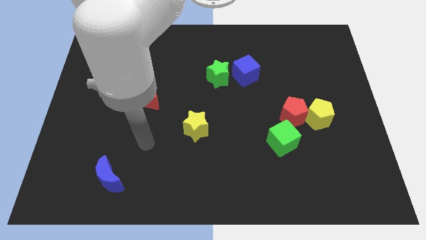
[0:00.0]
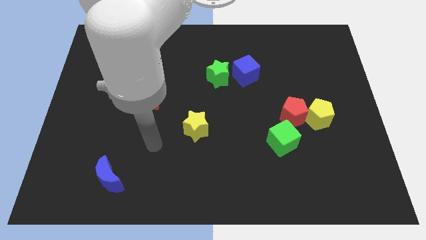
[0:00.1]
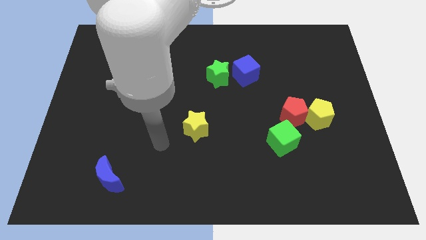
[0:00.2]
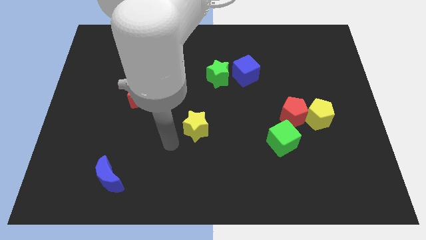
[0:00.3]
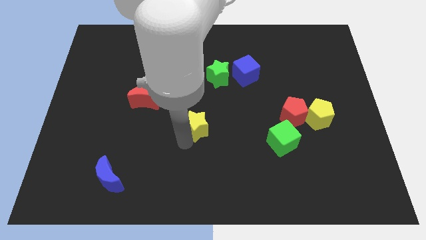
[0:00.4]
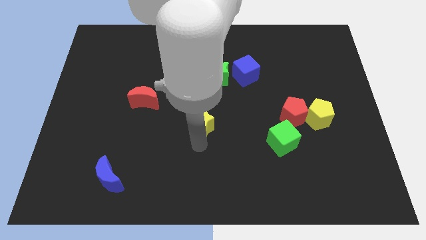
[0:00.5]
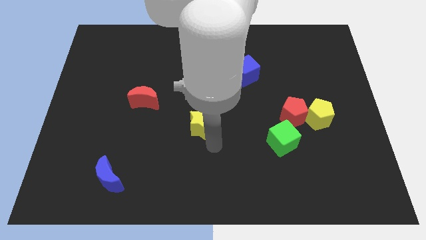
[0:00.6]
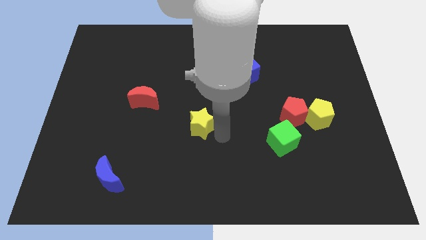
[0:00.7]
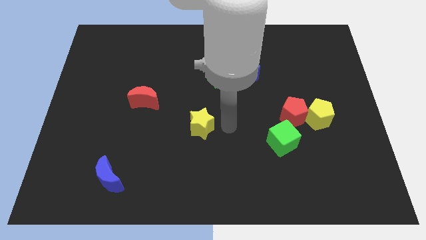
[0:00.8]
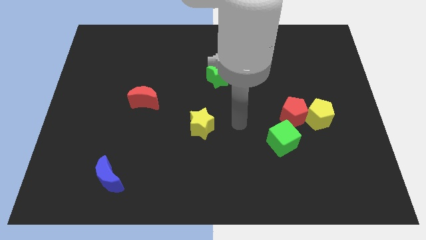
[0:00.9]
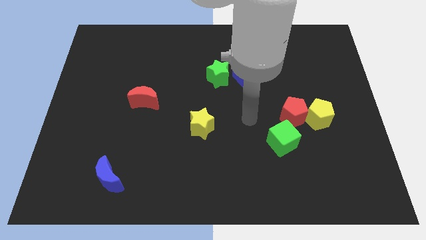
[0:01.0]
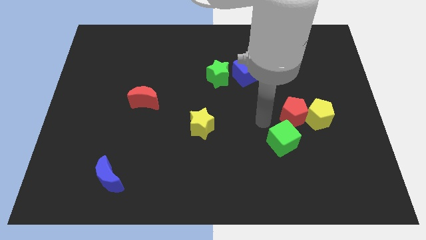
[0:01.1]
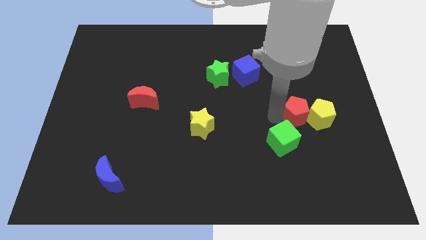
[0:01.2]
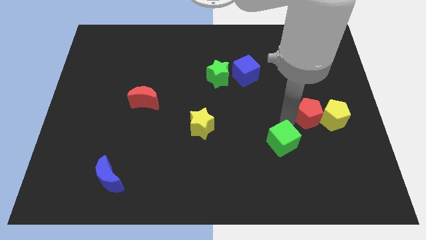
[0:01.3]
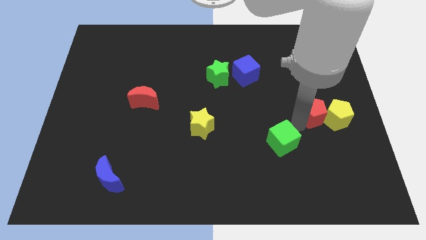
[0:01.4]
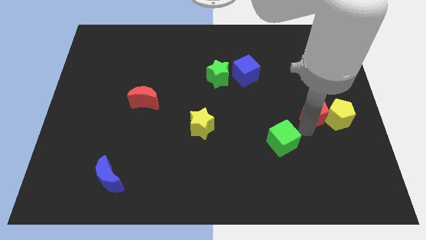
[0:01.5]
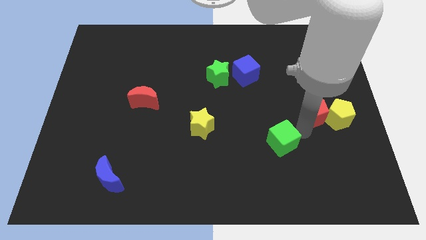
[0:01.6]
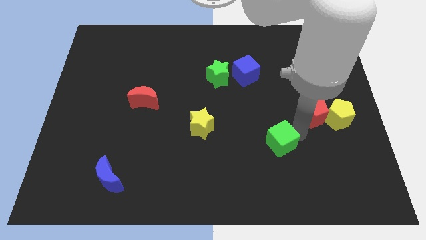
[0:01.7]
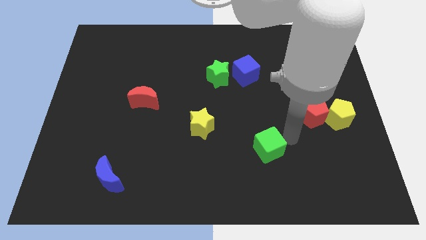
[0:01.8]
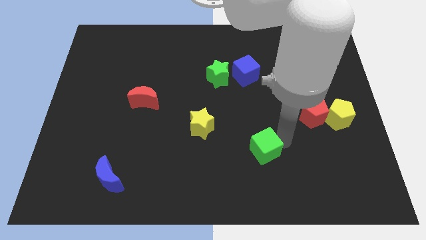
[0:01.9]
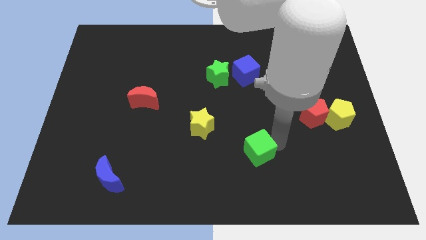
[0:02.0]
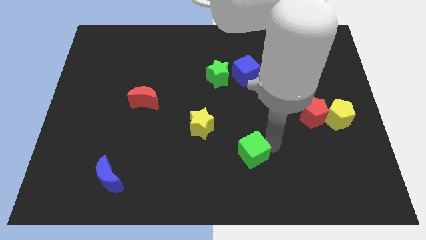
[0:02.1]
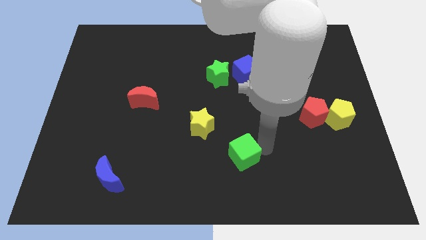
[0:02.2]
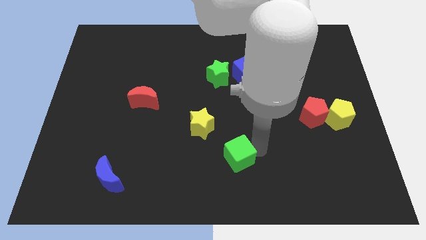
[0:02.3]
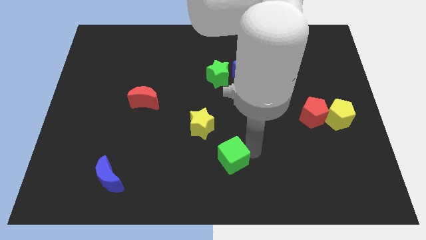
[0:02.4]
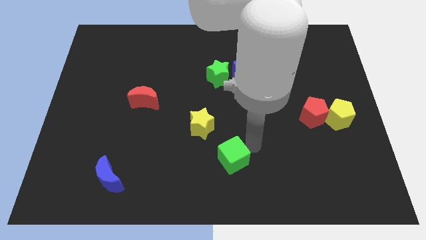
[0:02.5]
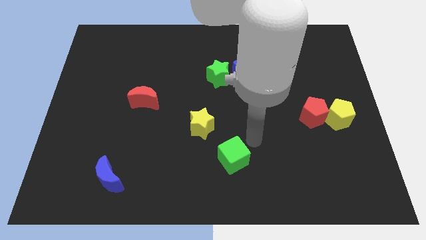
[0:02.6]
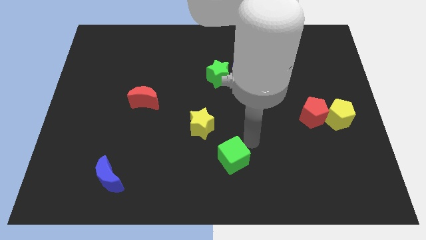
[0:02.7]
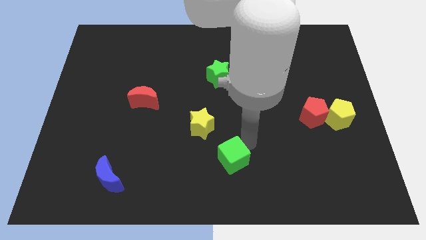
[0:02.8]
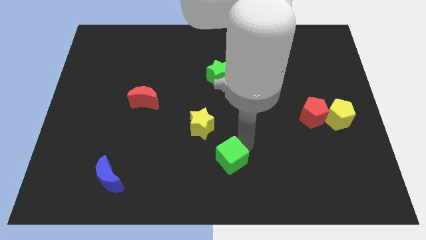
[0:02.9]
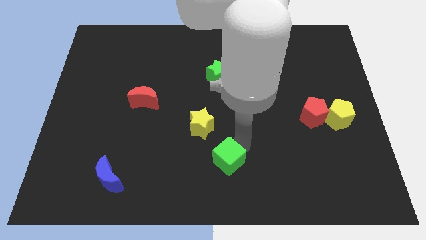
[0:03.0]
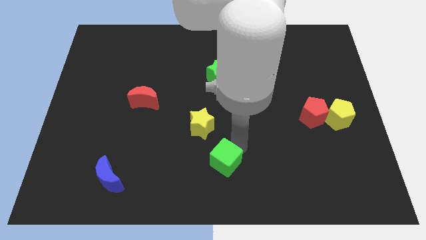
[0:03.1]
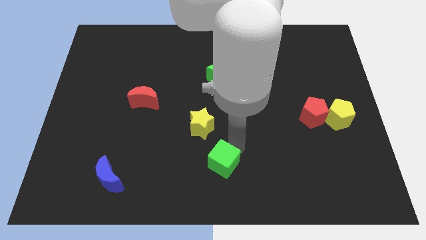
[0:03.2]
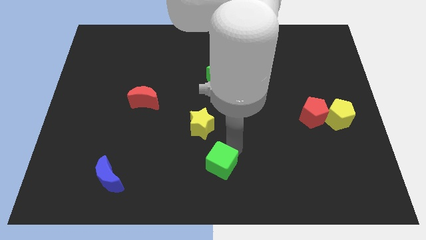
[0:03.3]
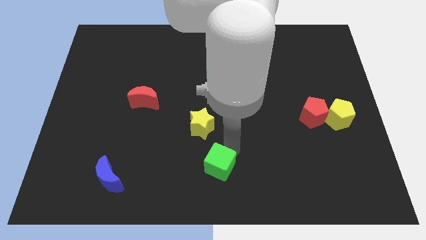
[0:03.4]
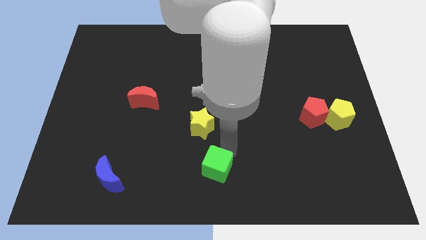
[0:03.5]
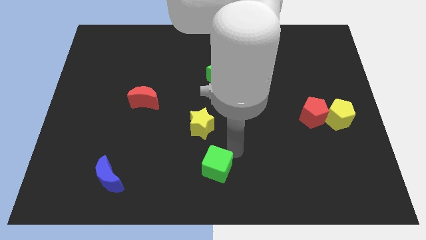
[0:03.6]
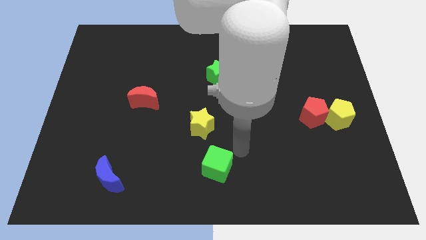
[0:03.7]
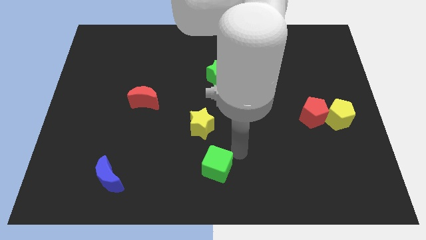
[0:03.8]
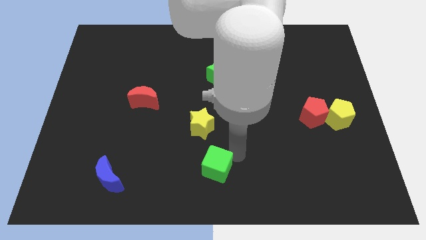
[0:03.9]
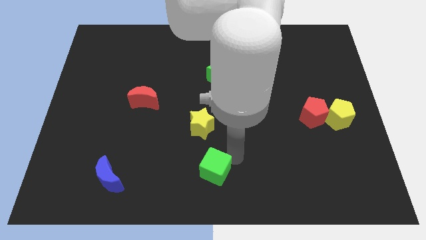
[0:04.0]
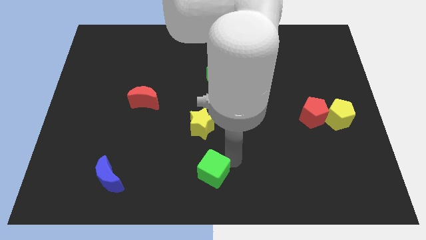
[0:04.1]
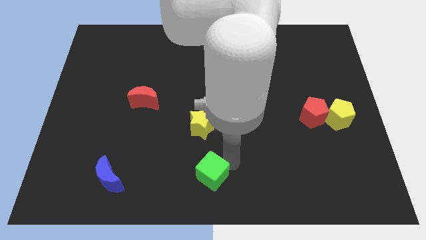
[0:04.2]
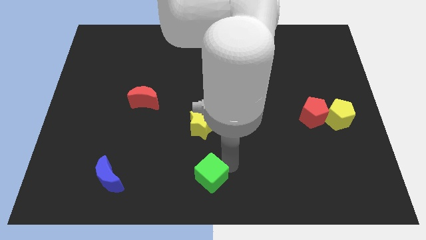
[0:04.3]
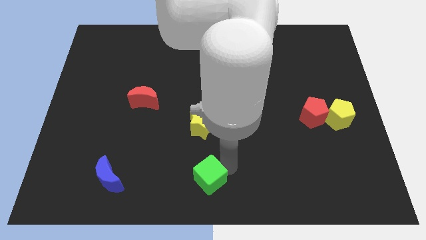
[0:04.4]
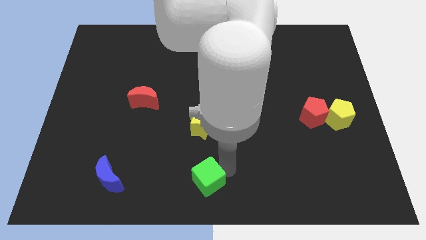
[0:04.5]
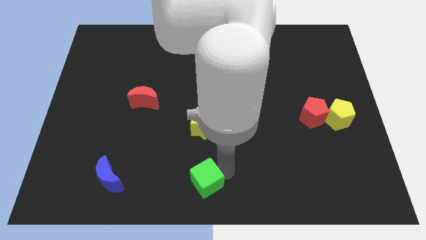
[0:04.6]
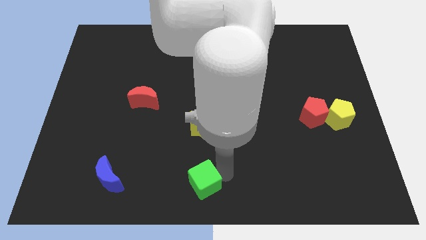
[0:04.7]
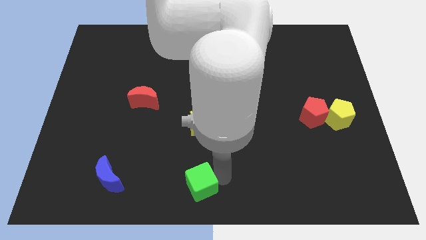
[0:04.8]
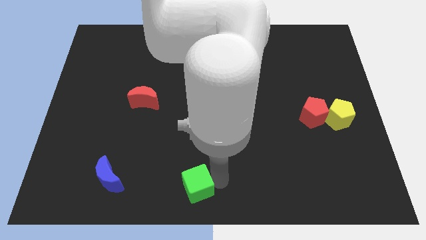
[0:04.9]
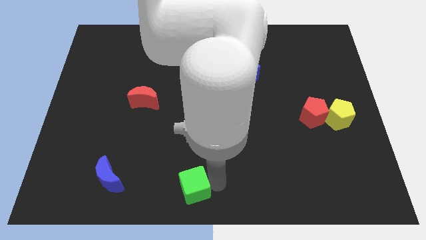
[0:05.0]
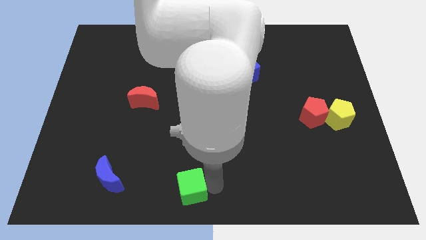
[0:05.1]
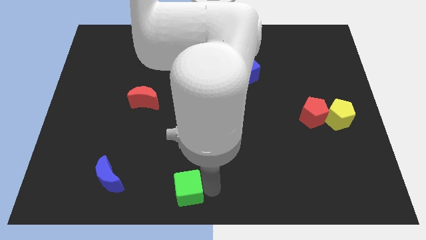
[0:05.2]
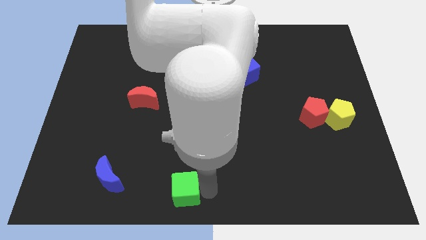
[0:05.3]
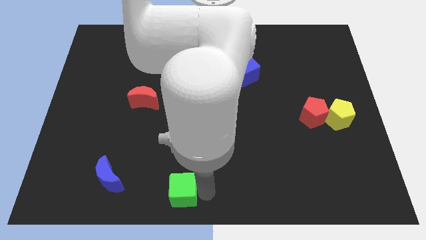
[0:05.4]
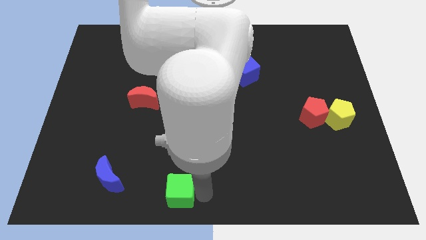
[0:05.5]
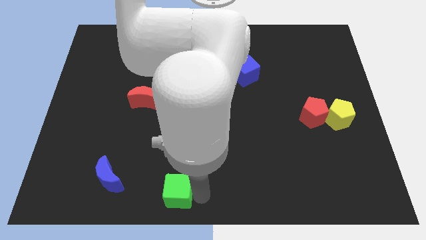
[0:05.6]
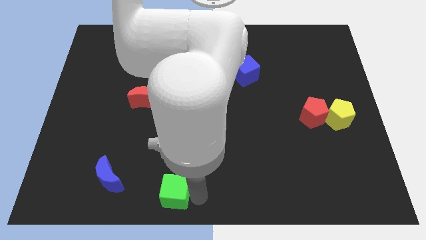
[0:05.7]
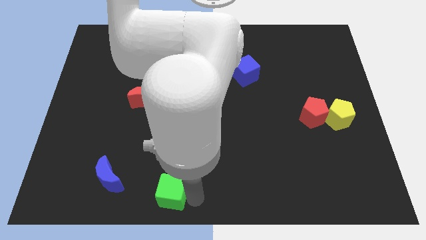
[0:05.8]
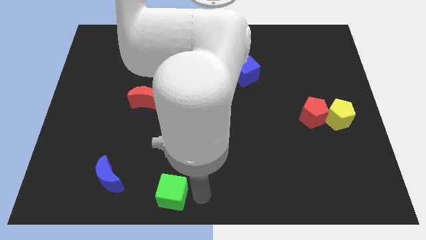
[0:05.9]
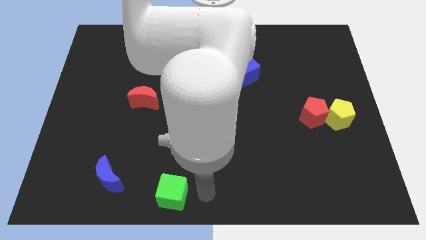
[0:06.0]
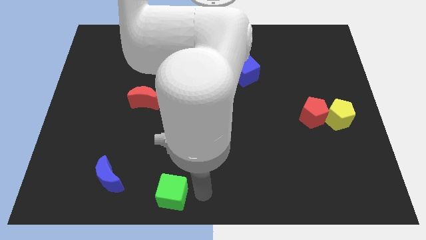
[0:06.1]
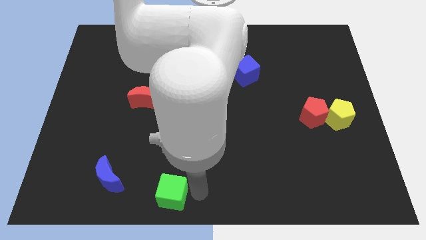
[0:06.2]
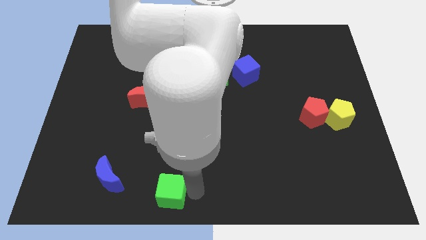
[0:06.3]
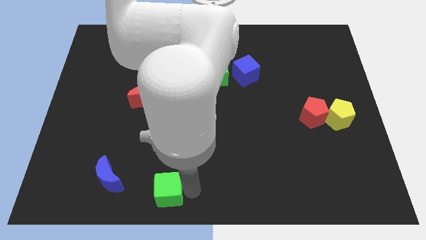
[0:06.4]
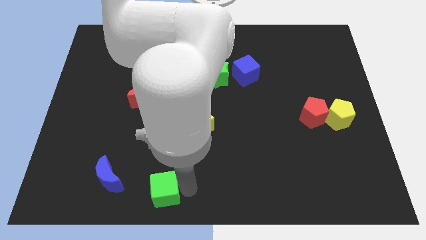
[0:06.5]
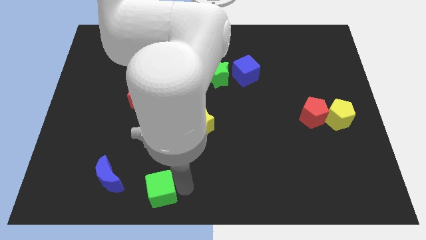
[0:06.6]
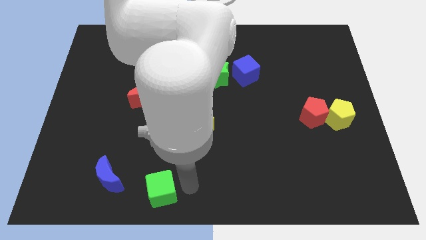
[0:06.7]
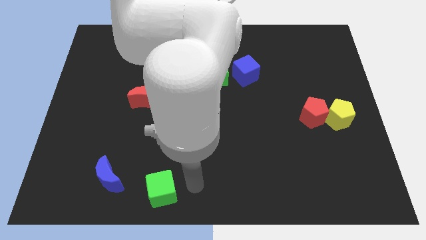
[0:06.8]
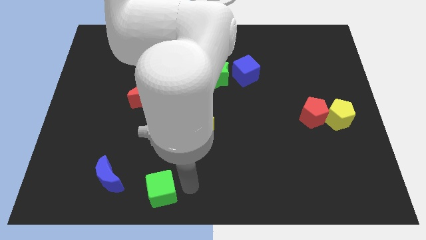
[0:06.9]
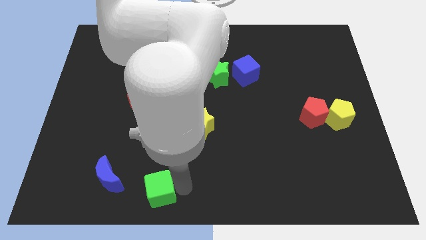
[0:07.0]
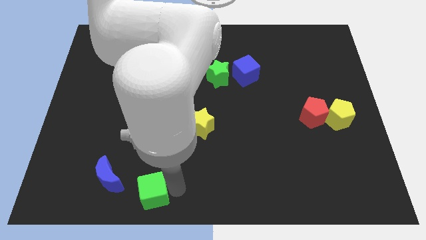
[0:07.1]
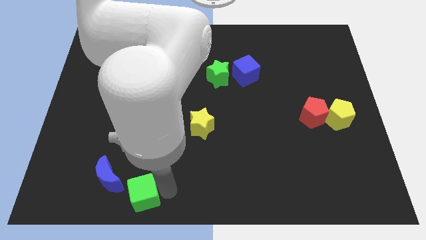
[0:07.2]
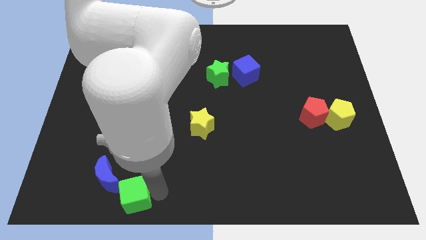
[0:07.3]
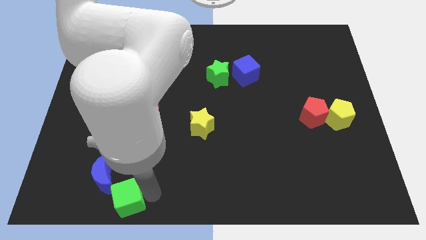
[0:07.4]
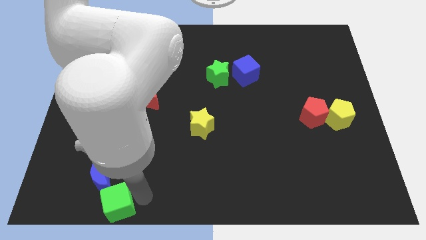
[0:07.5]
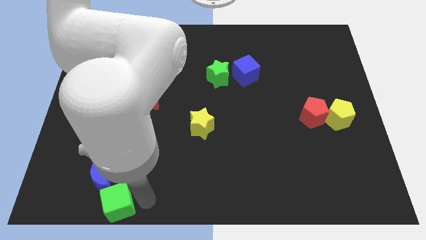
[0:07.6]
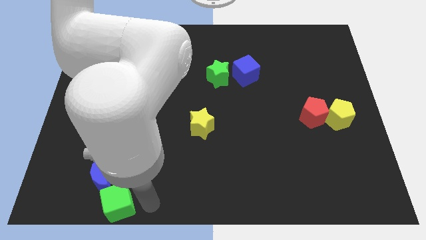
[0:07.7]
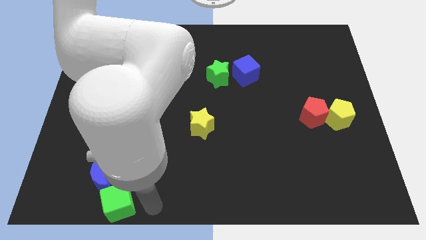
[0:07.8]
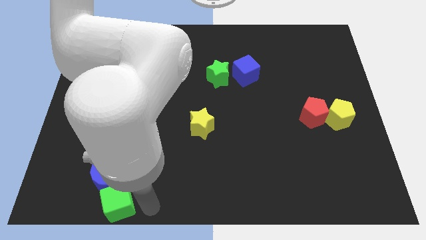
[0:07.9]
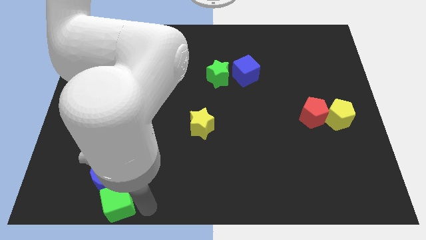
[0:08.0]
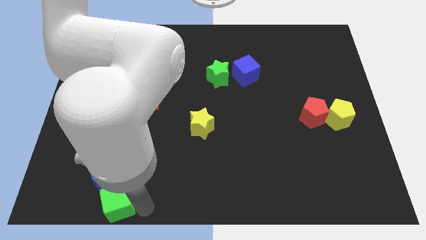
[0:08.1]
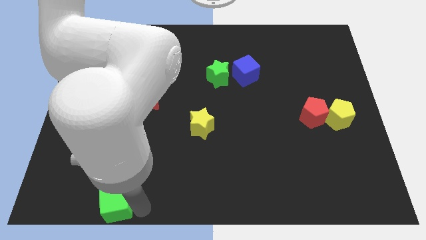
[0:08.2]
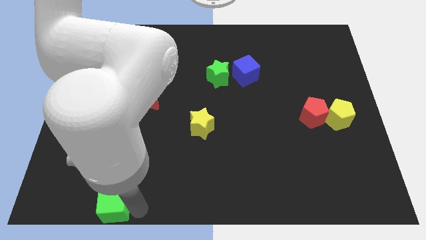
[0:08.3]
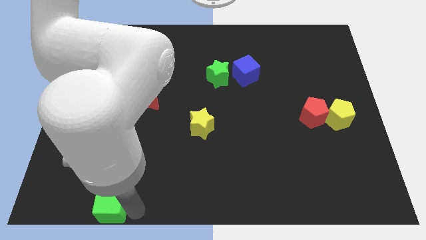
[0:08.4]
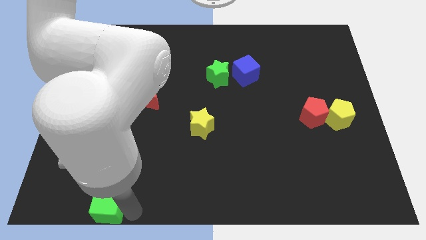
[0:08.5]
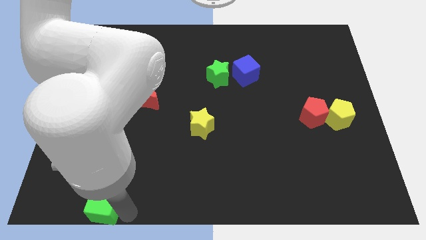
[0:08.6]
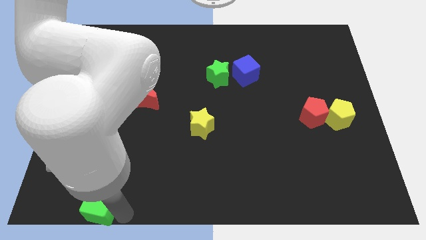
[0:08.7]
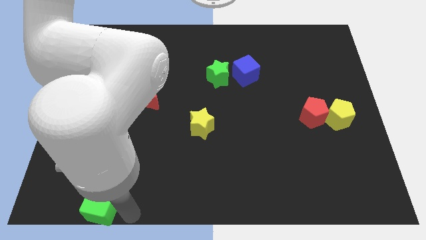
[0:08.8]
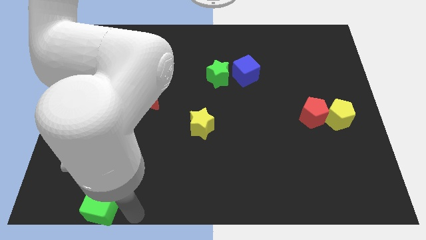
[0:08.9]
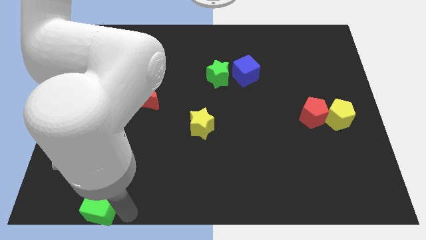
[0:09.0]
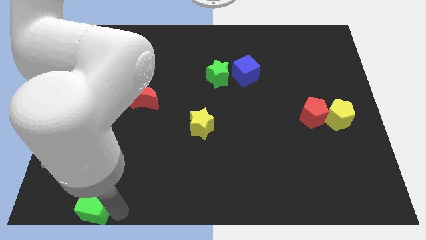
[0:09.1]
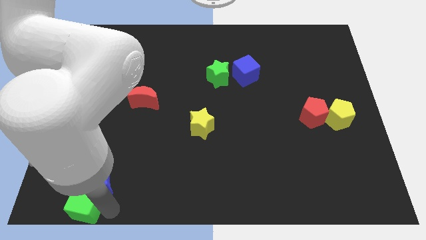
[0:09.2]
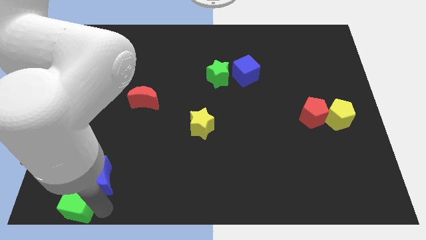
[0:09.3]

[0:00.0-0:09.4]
slide the green cube to the bottom left of the board
